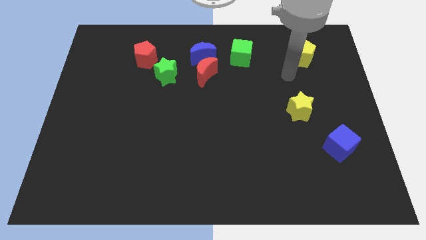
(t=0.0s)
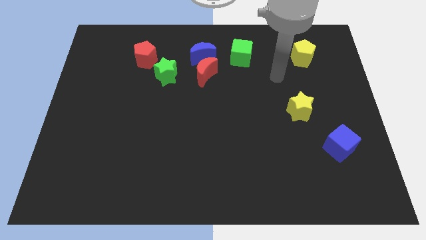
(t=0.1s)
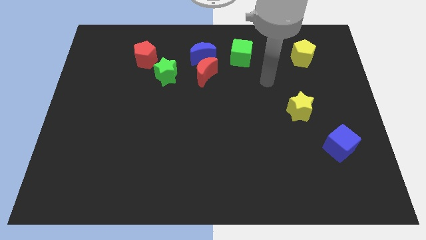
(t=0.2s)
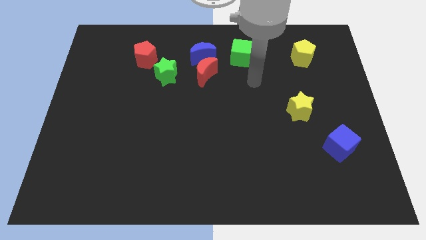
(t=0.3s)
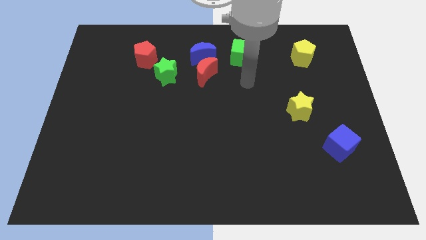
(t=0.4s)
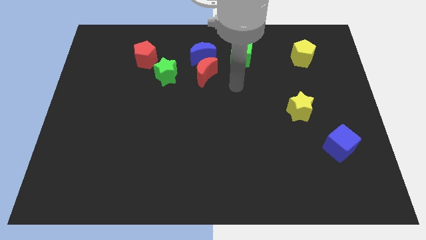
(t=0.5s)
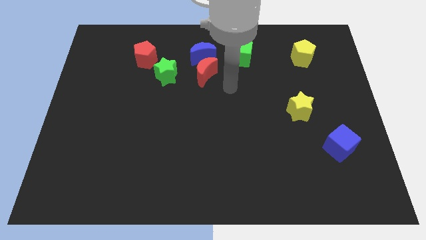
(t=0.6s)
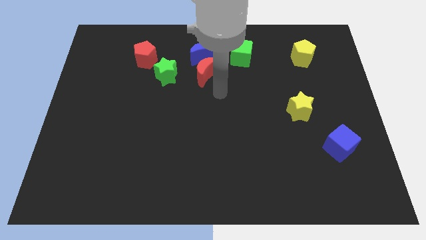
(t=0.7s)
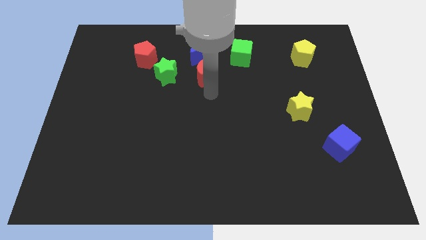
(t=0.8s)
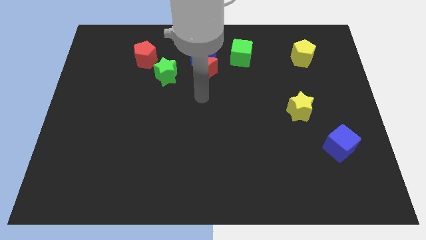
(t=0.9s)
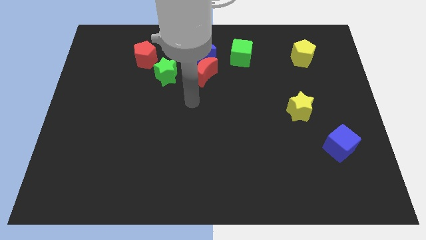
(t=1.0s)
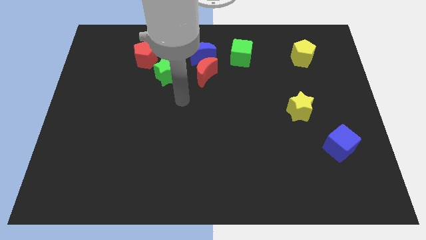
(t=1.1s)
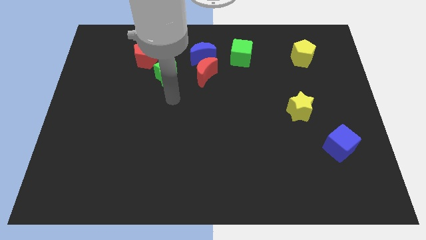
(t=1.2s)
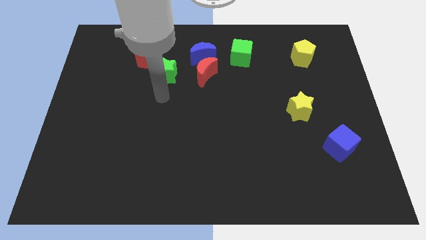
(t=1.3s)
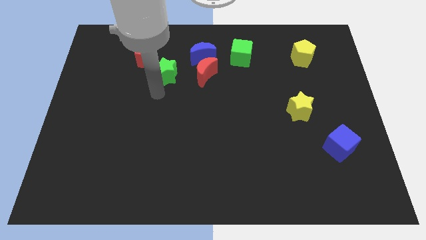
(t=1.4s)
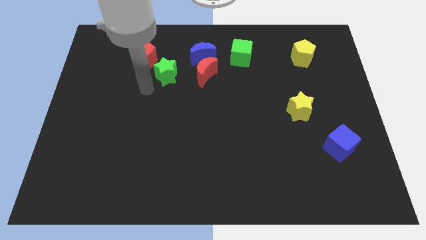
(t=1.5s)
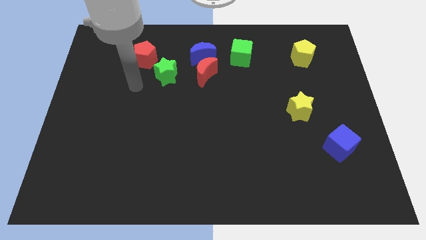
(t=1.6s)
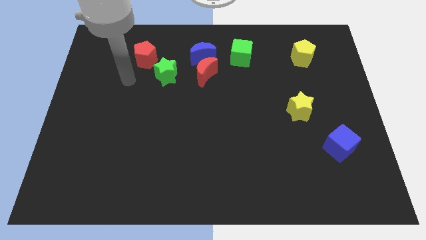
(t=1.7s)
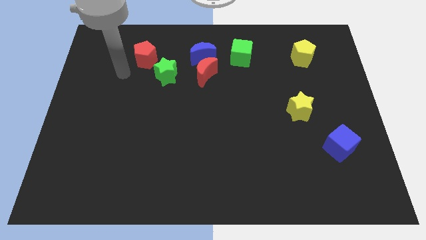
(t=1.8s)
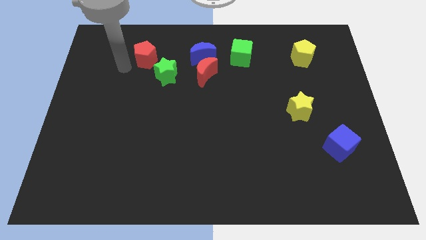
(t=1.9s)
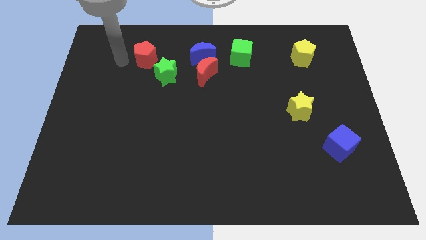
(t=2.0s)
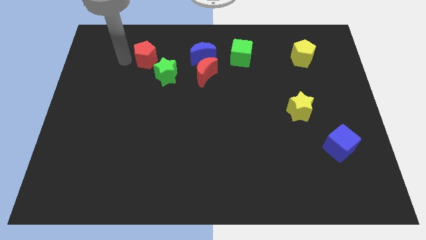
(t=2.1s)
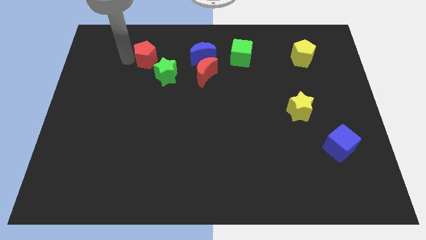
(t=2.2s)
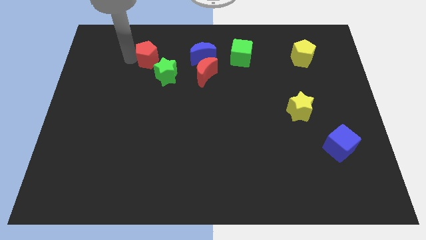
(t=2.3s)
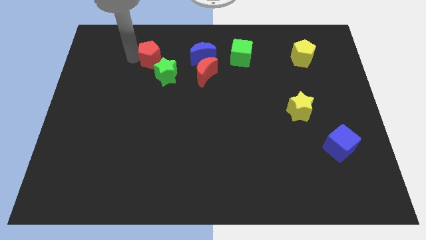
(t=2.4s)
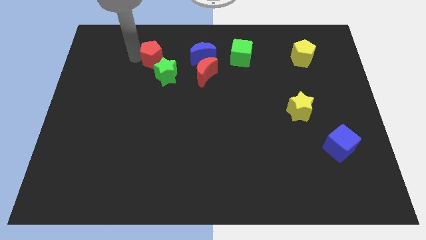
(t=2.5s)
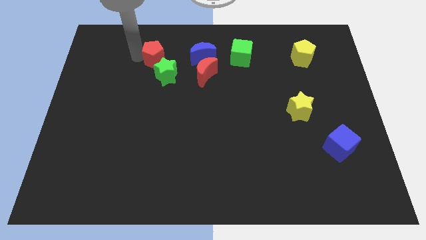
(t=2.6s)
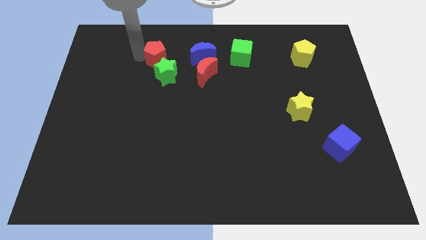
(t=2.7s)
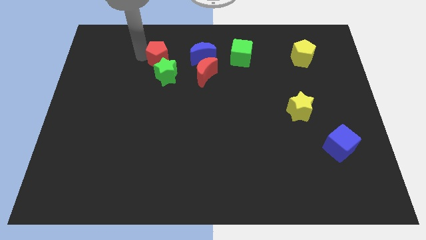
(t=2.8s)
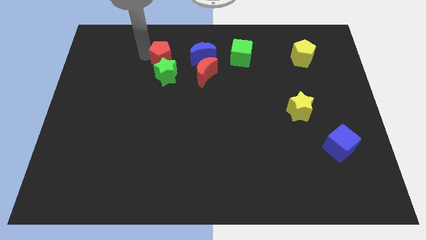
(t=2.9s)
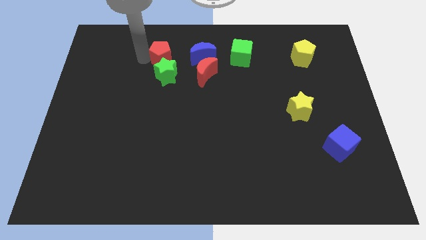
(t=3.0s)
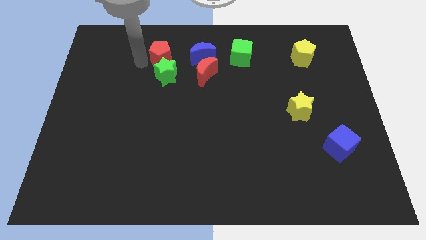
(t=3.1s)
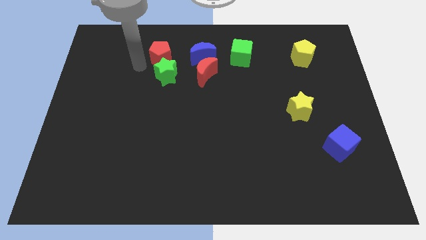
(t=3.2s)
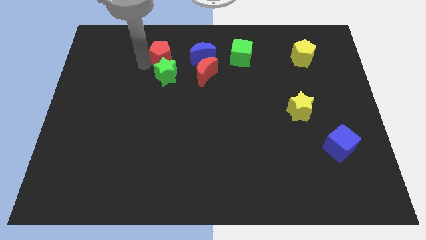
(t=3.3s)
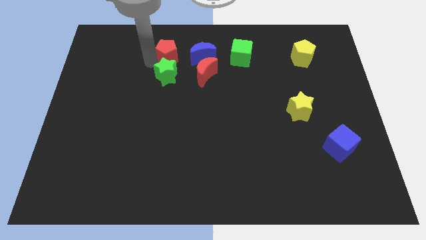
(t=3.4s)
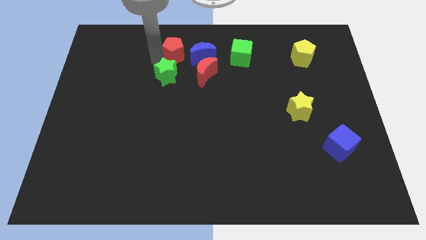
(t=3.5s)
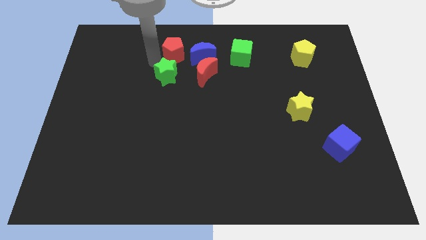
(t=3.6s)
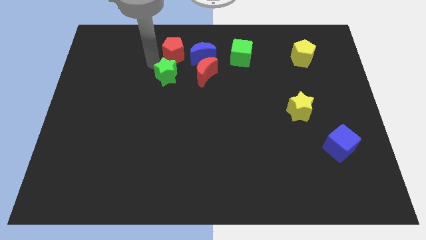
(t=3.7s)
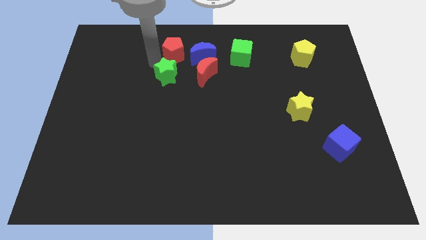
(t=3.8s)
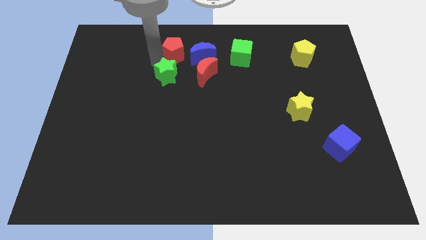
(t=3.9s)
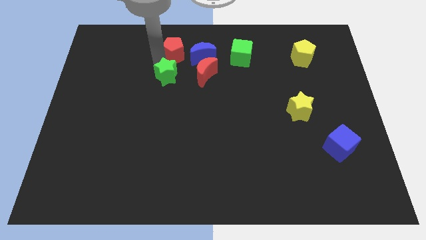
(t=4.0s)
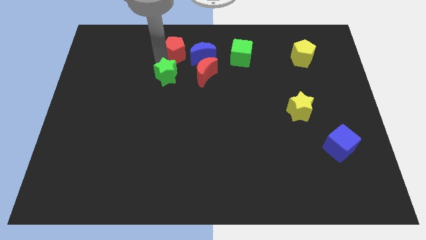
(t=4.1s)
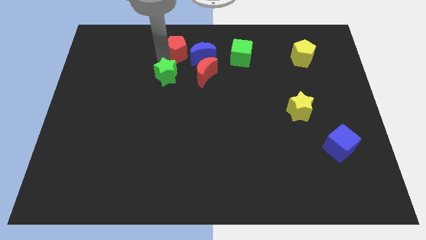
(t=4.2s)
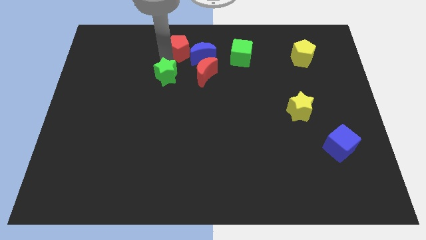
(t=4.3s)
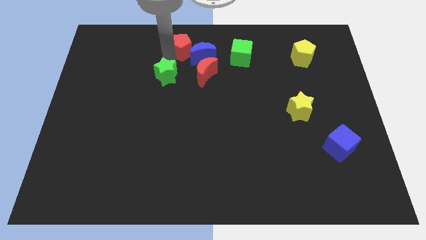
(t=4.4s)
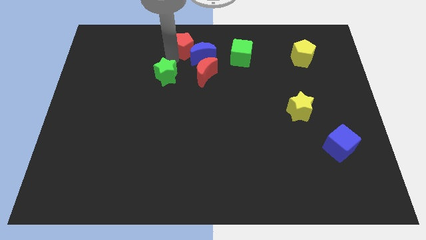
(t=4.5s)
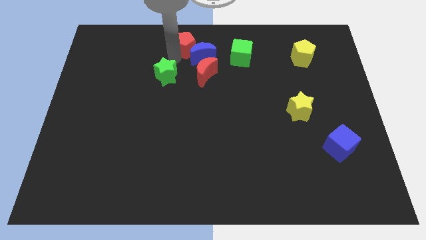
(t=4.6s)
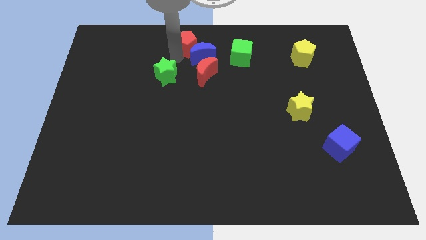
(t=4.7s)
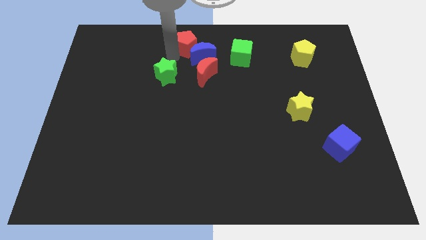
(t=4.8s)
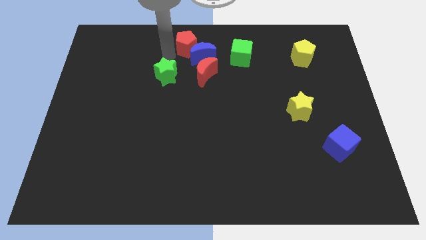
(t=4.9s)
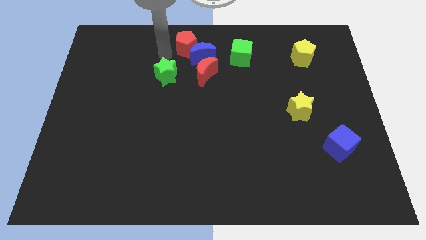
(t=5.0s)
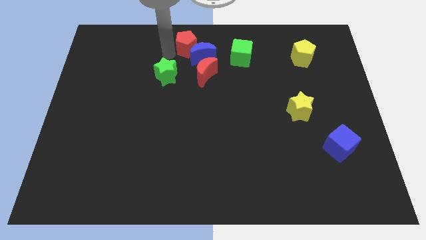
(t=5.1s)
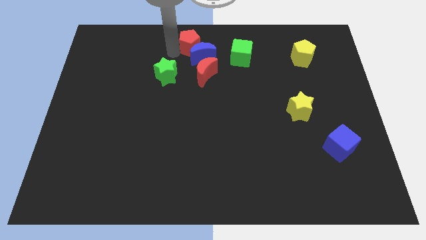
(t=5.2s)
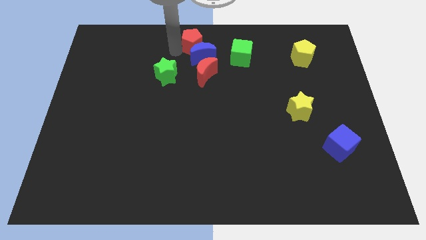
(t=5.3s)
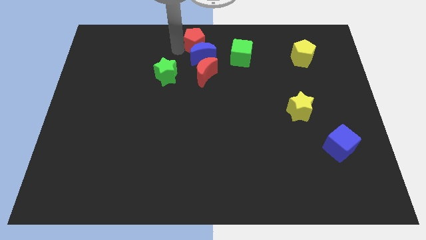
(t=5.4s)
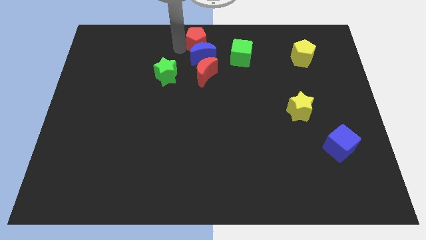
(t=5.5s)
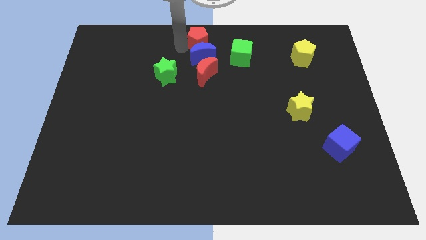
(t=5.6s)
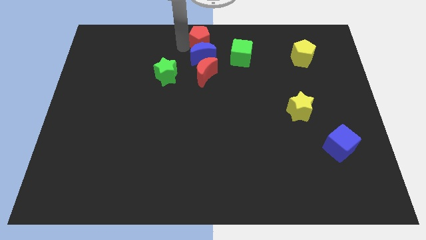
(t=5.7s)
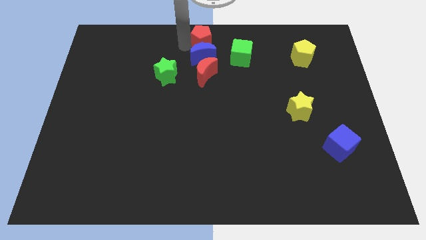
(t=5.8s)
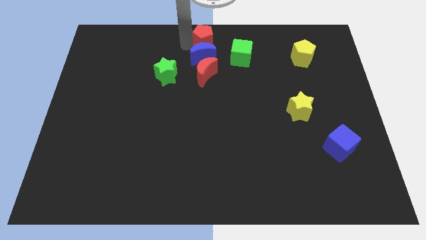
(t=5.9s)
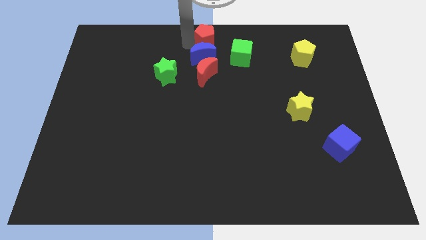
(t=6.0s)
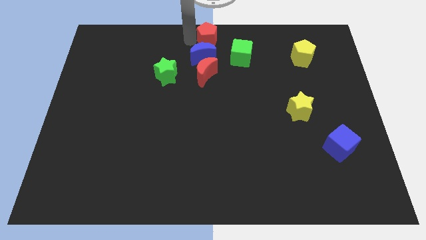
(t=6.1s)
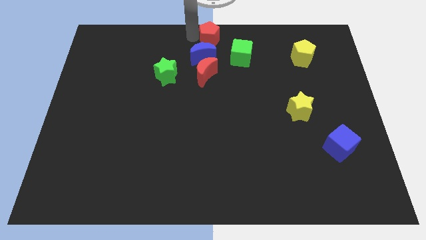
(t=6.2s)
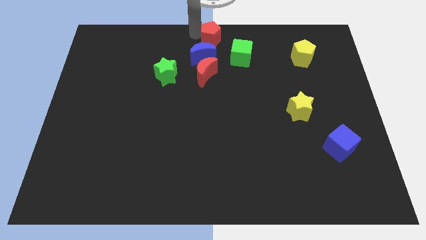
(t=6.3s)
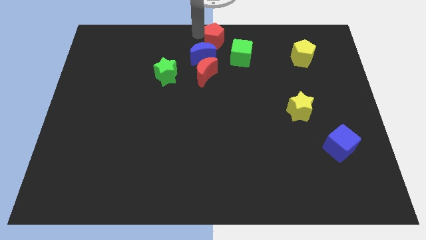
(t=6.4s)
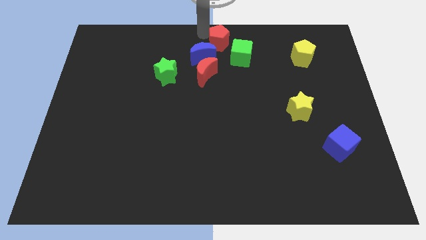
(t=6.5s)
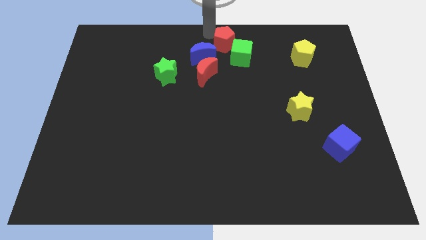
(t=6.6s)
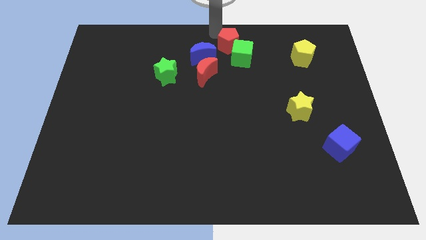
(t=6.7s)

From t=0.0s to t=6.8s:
move the red pentagon right

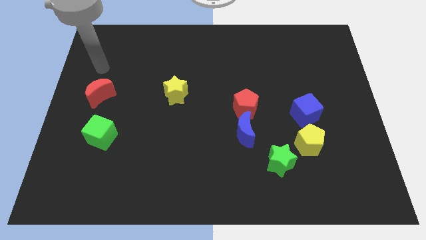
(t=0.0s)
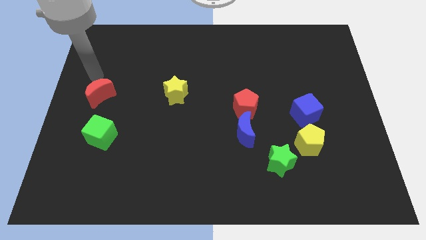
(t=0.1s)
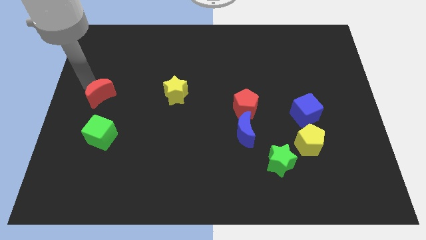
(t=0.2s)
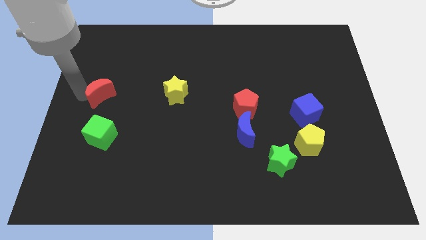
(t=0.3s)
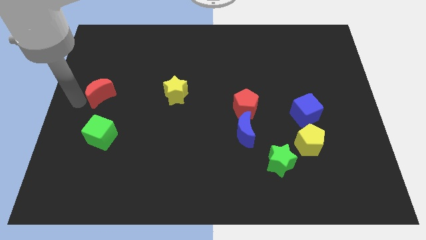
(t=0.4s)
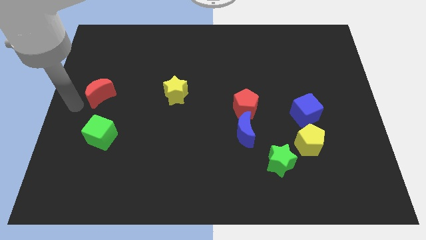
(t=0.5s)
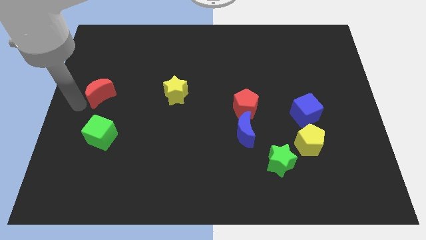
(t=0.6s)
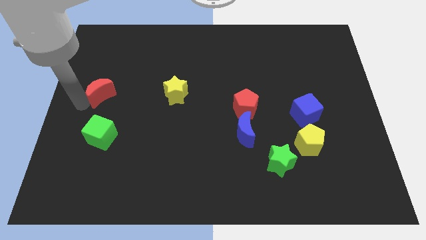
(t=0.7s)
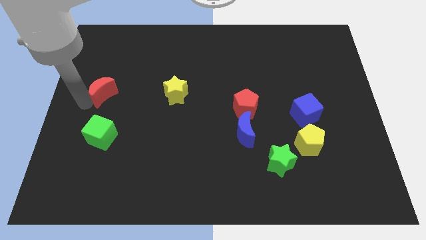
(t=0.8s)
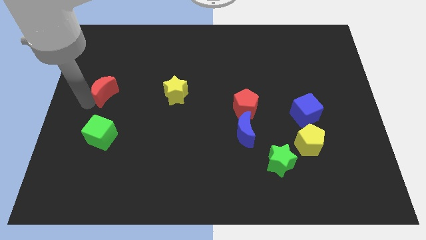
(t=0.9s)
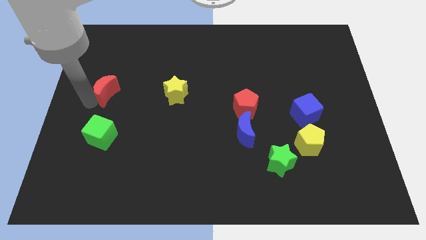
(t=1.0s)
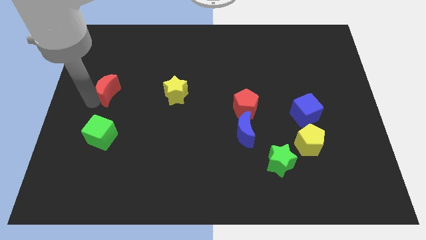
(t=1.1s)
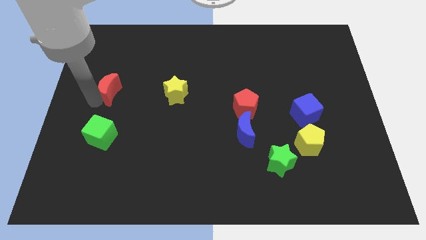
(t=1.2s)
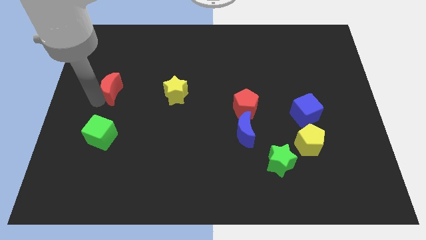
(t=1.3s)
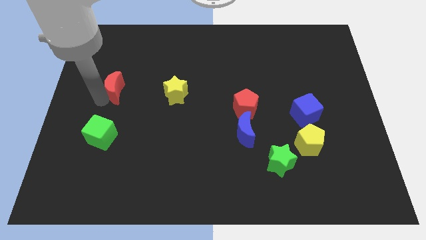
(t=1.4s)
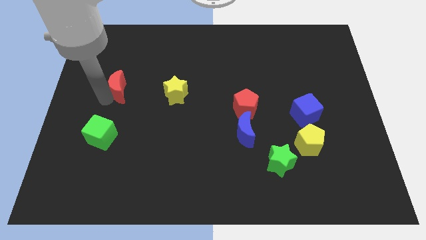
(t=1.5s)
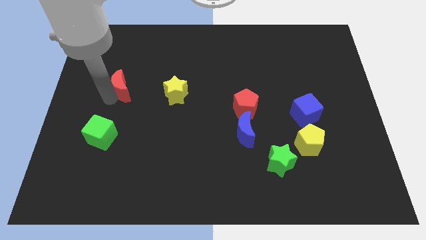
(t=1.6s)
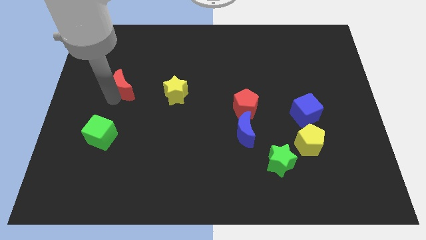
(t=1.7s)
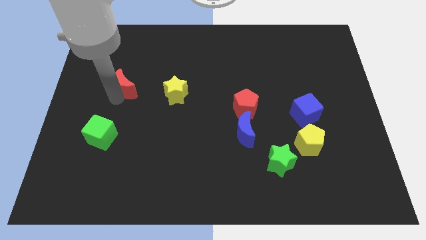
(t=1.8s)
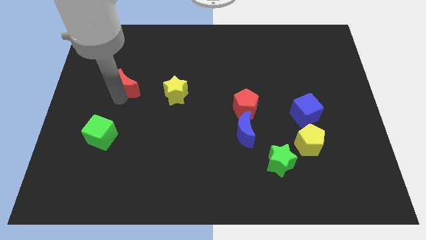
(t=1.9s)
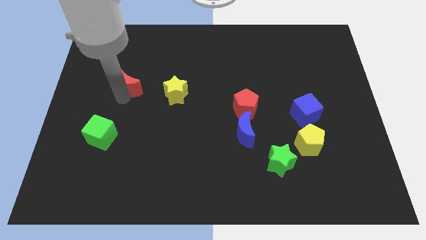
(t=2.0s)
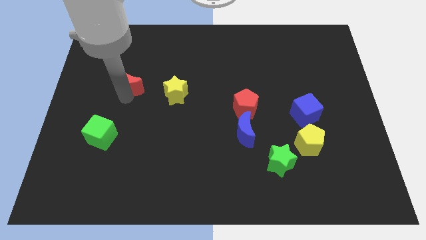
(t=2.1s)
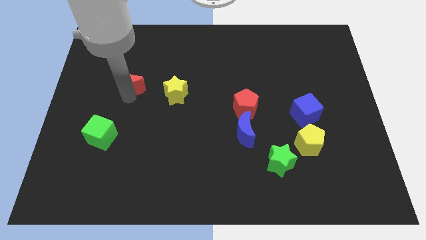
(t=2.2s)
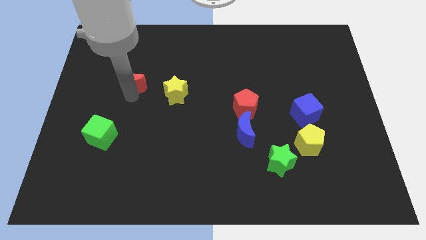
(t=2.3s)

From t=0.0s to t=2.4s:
move the red moon a little bit up and to the right
